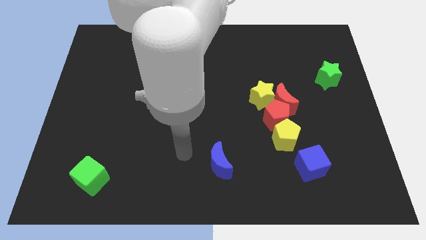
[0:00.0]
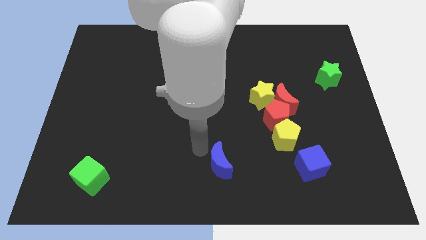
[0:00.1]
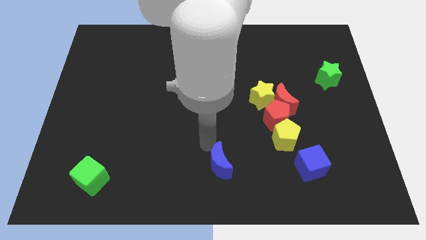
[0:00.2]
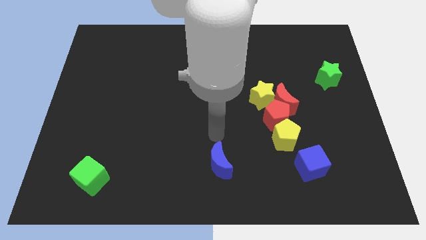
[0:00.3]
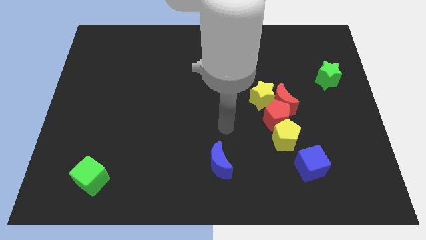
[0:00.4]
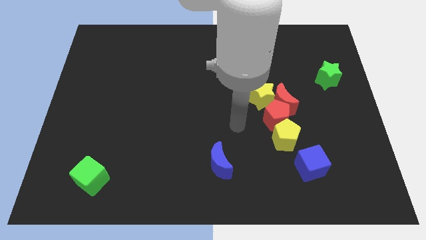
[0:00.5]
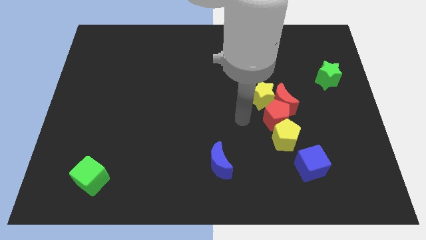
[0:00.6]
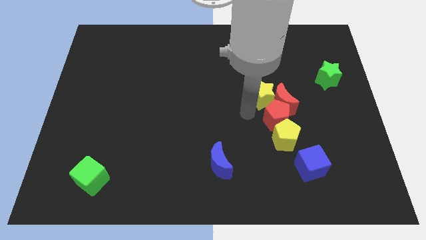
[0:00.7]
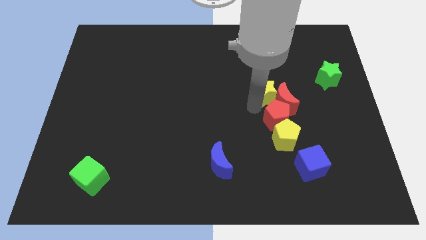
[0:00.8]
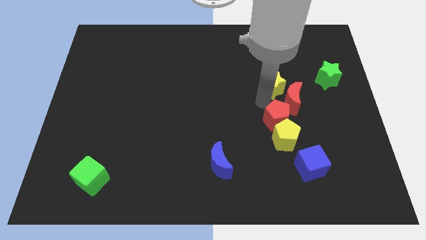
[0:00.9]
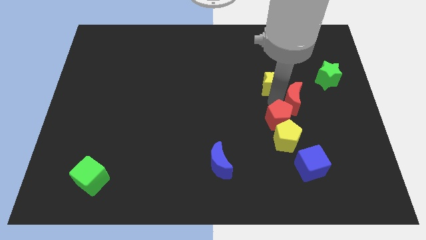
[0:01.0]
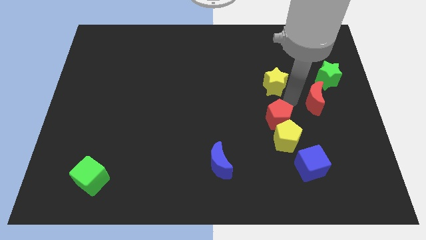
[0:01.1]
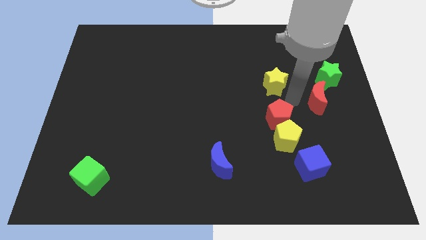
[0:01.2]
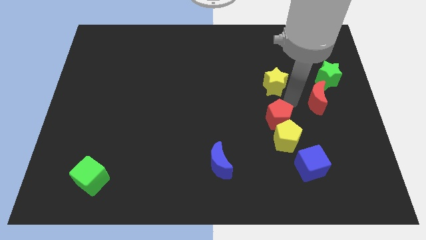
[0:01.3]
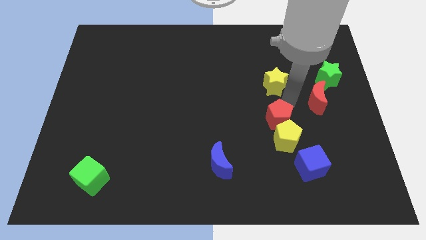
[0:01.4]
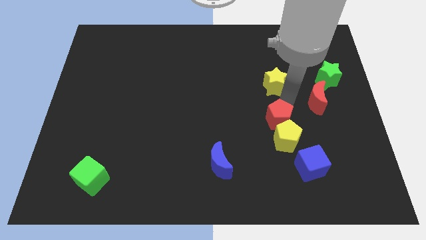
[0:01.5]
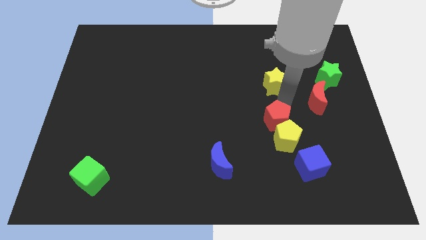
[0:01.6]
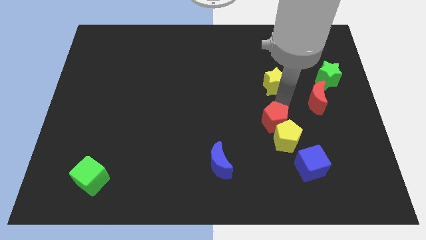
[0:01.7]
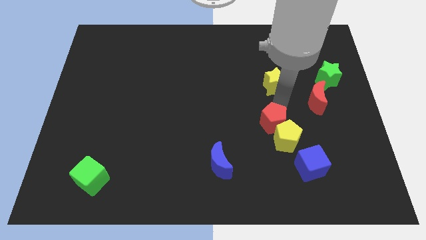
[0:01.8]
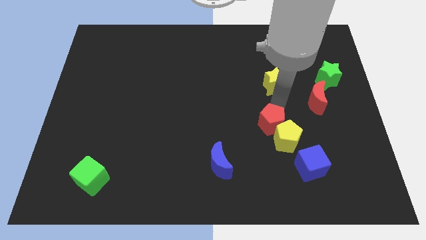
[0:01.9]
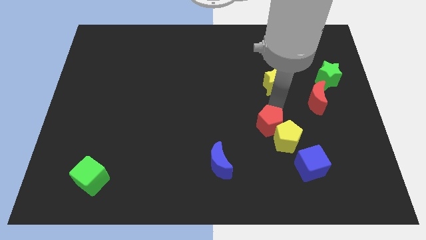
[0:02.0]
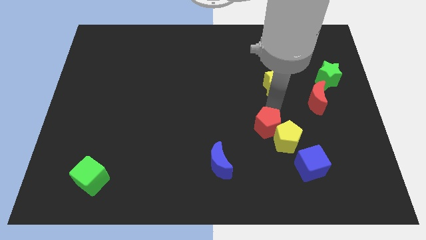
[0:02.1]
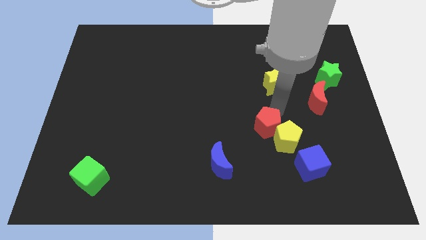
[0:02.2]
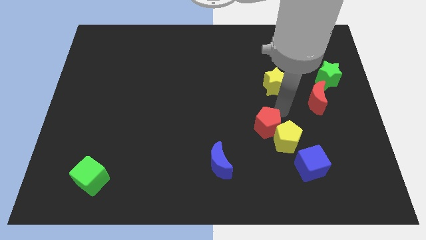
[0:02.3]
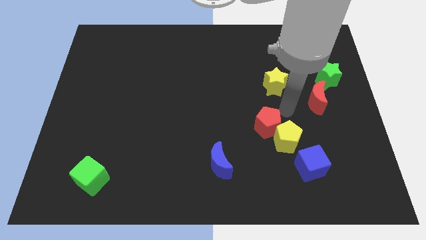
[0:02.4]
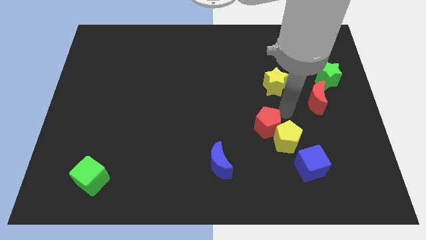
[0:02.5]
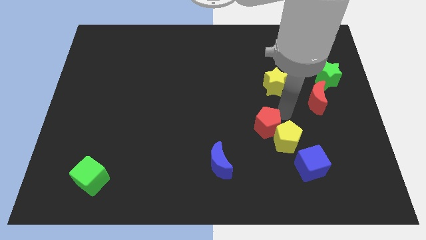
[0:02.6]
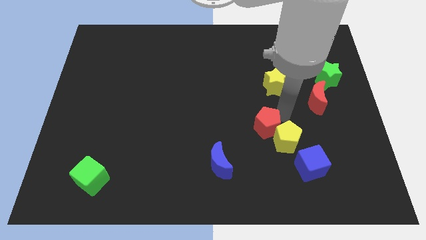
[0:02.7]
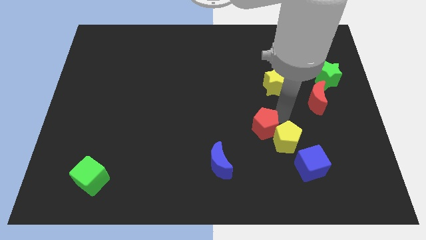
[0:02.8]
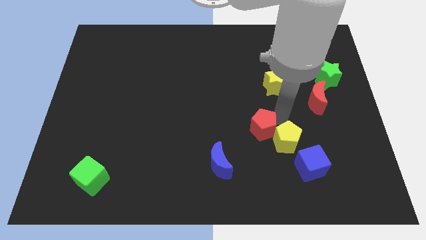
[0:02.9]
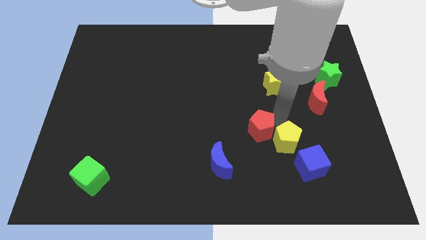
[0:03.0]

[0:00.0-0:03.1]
move the red pentagon away from the red moon, yellow pentagon, and yellow star

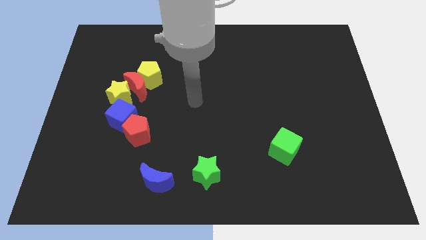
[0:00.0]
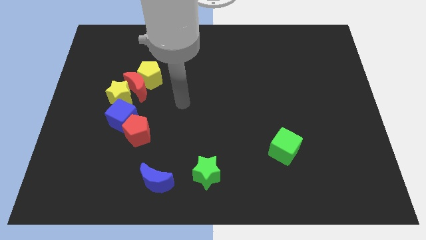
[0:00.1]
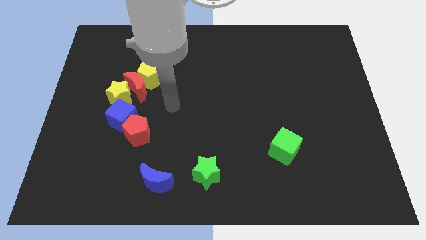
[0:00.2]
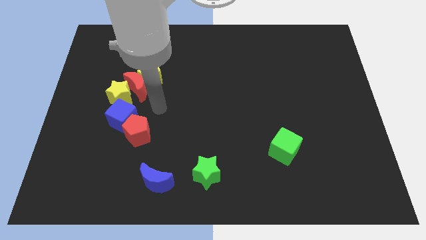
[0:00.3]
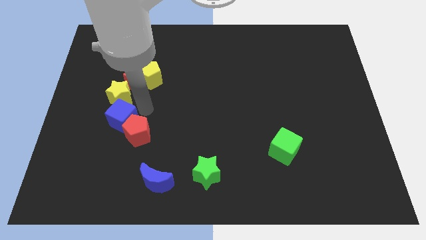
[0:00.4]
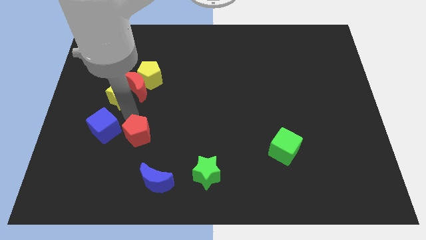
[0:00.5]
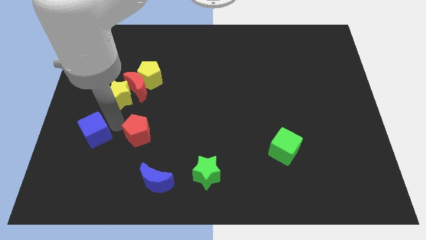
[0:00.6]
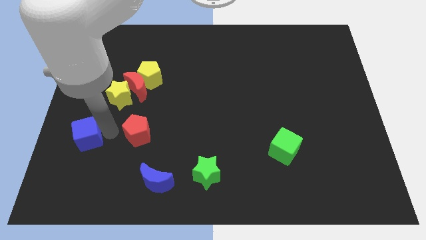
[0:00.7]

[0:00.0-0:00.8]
move the red pentagon away from the blue cube

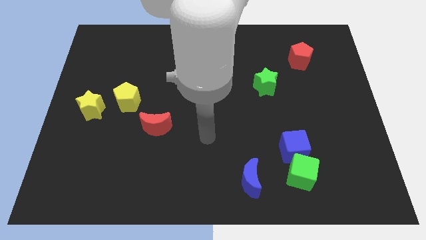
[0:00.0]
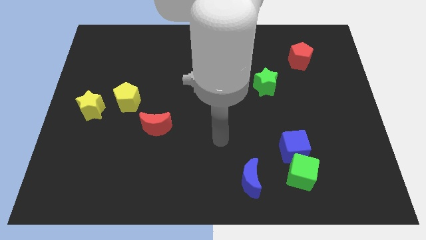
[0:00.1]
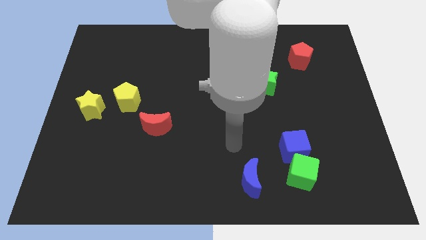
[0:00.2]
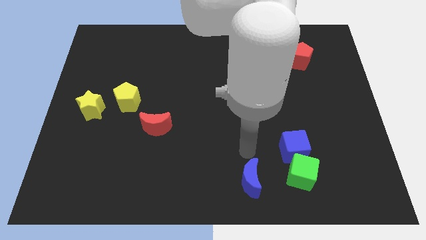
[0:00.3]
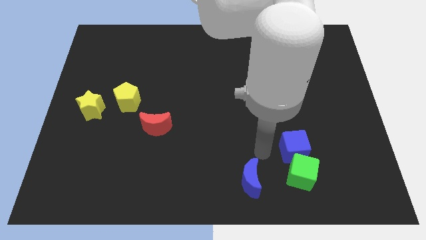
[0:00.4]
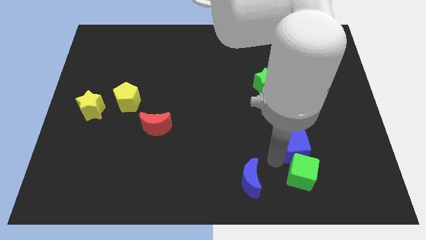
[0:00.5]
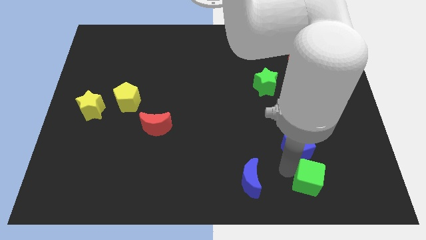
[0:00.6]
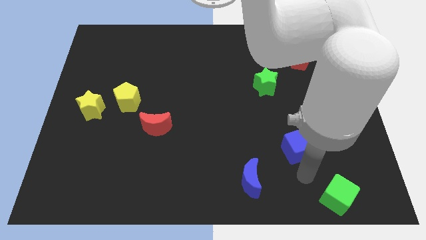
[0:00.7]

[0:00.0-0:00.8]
move the blue cube away from the green cube

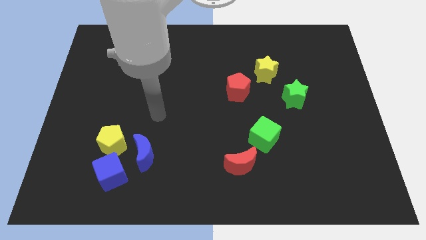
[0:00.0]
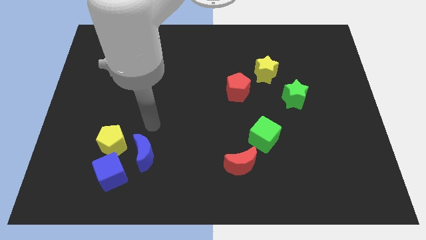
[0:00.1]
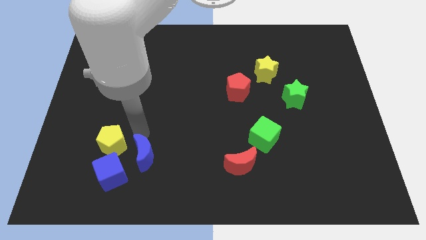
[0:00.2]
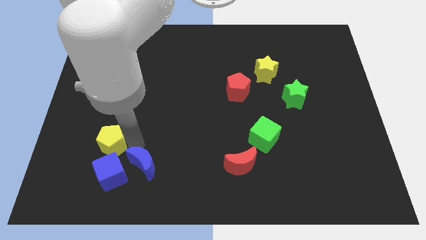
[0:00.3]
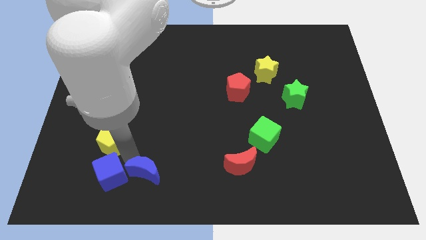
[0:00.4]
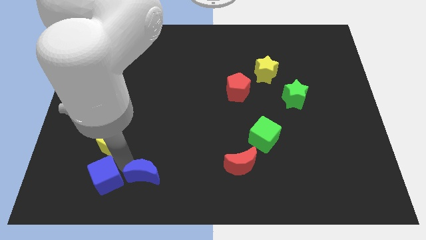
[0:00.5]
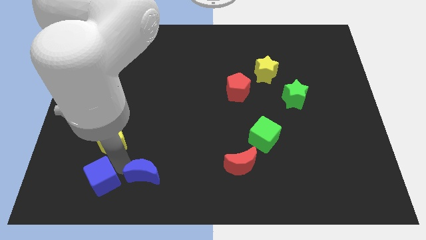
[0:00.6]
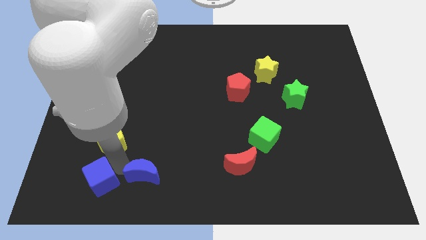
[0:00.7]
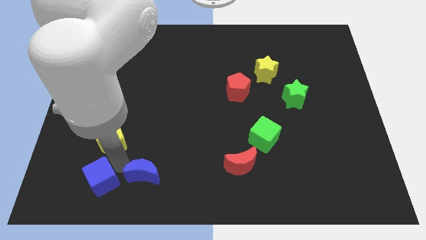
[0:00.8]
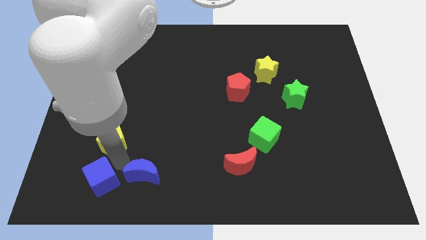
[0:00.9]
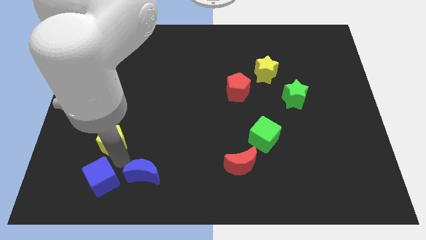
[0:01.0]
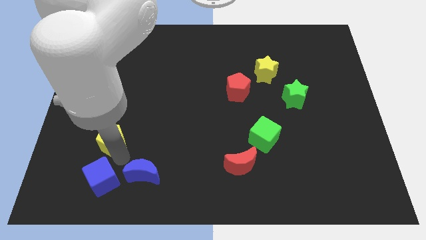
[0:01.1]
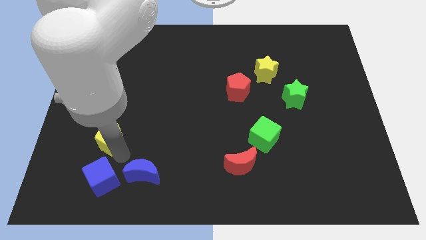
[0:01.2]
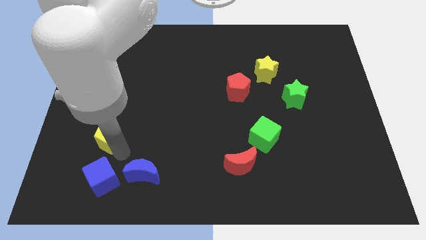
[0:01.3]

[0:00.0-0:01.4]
pull the yellow pentagon apart from the blue cube and blue moon

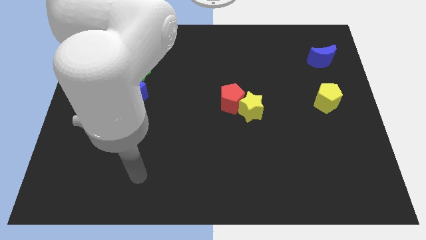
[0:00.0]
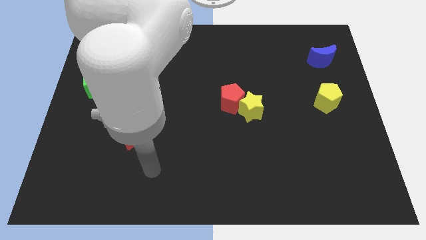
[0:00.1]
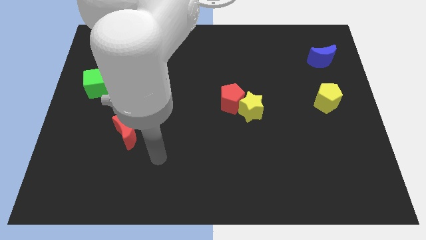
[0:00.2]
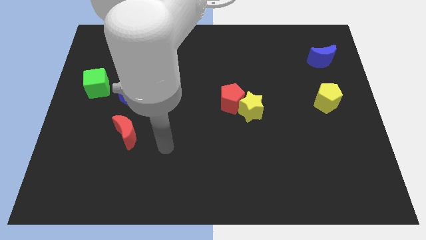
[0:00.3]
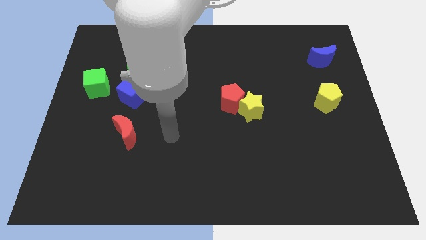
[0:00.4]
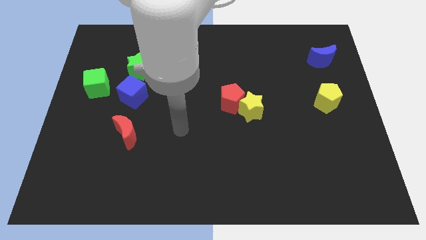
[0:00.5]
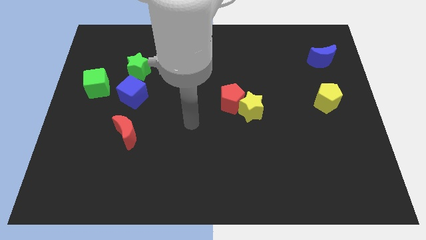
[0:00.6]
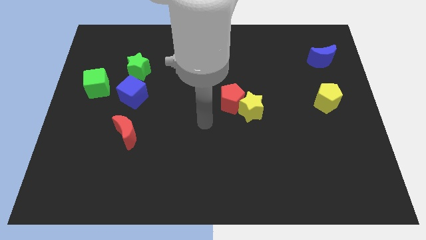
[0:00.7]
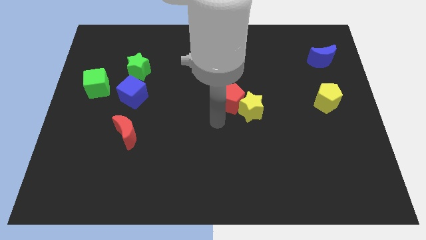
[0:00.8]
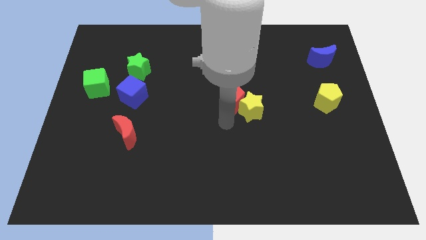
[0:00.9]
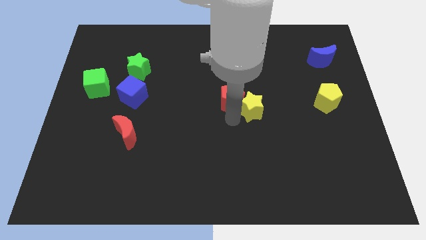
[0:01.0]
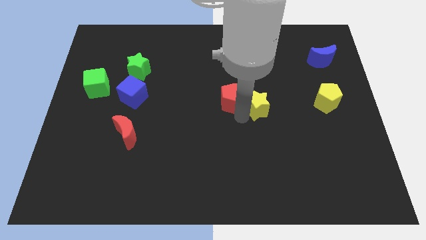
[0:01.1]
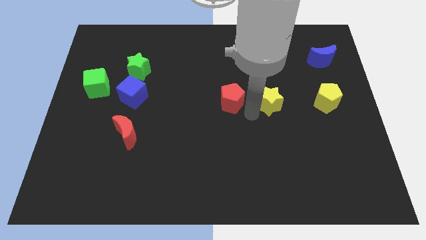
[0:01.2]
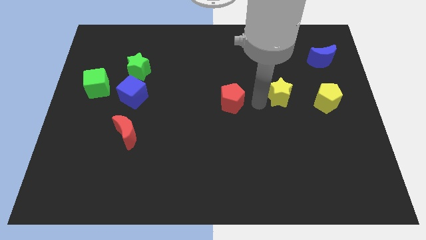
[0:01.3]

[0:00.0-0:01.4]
move the red pentagon away from the yellow star

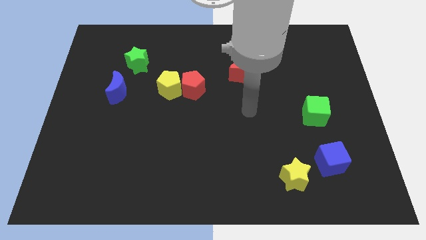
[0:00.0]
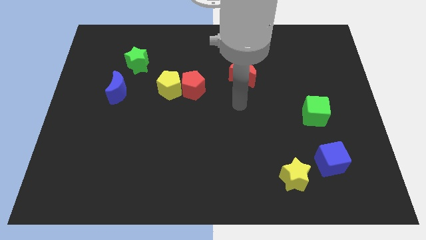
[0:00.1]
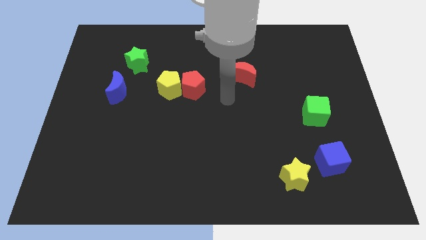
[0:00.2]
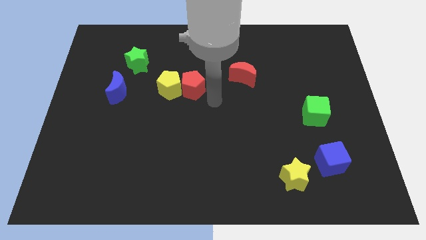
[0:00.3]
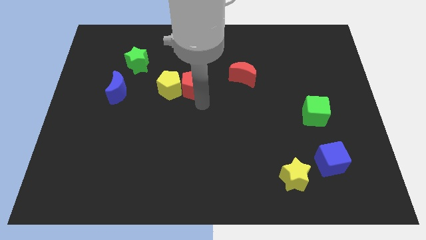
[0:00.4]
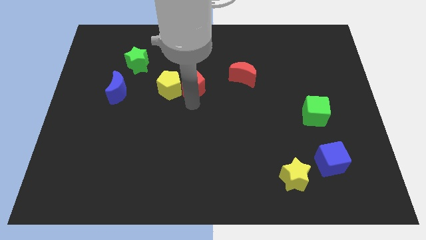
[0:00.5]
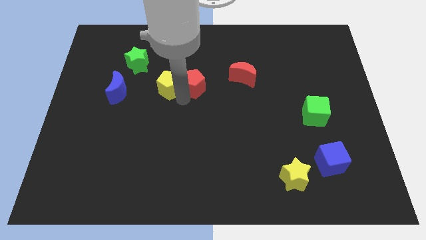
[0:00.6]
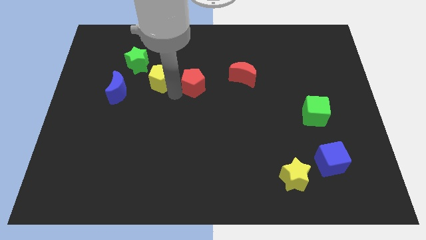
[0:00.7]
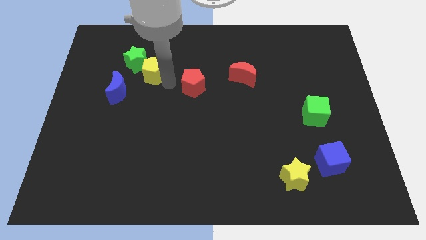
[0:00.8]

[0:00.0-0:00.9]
pull the red pentagon apart from the yellow pentagon

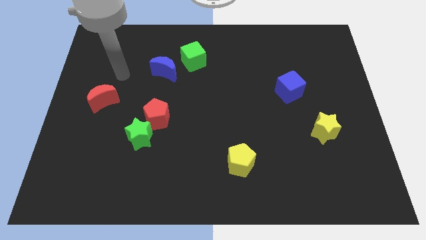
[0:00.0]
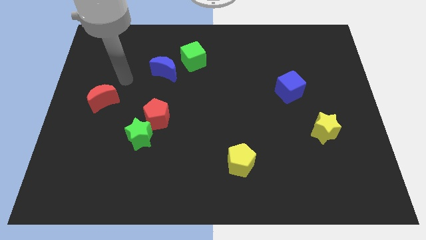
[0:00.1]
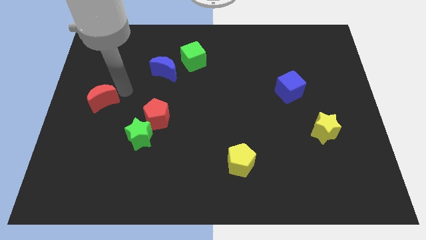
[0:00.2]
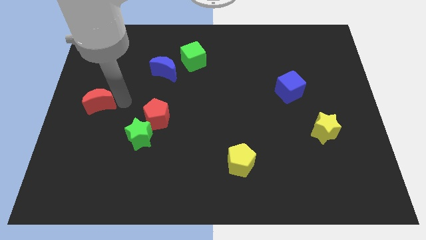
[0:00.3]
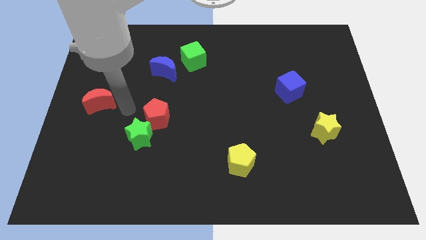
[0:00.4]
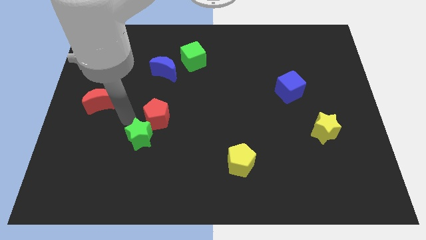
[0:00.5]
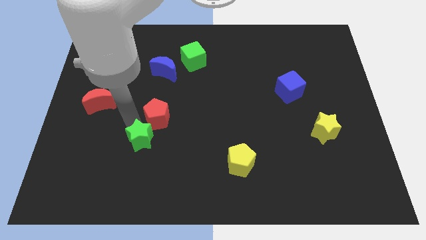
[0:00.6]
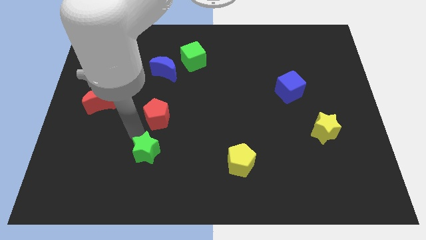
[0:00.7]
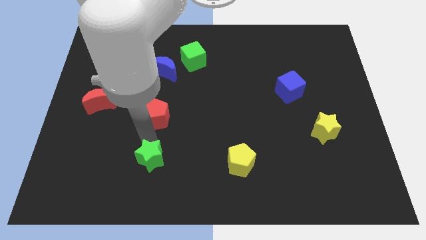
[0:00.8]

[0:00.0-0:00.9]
move the red pentagon away from the green star

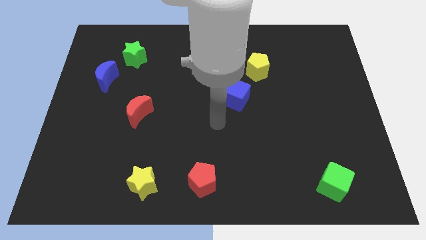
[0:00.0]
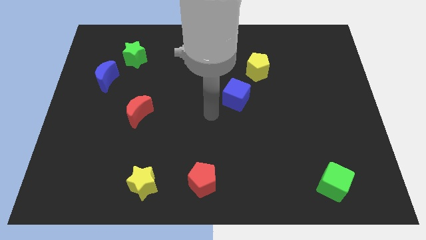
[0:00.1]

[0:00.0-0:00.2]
pull the blue moon apart from the green star
